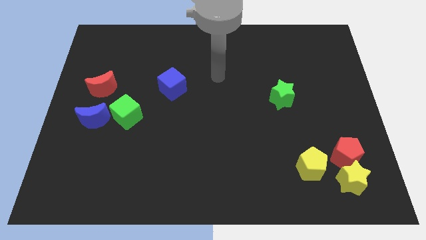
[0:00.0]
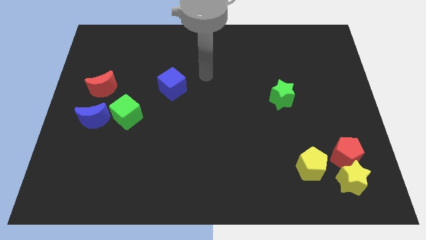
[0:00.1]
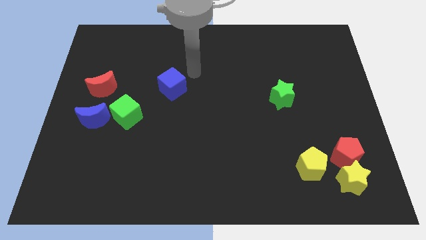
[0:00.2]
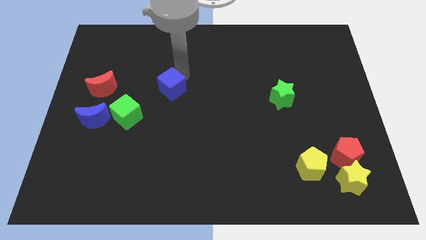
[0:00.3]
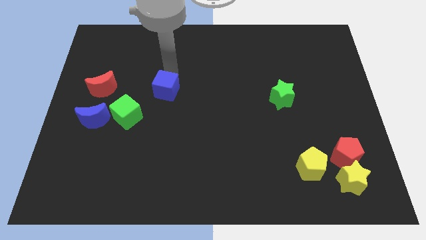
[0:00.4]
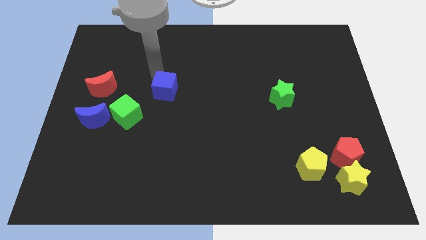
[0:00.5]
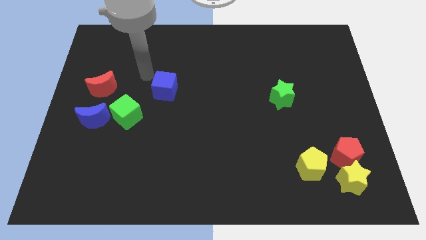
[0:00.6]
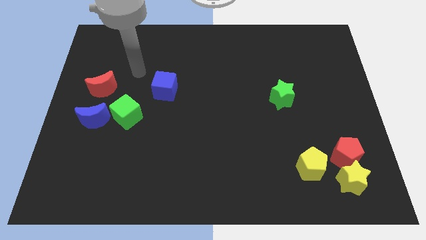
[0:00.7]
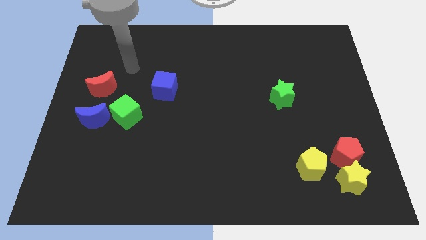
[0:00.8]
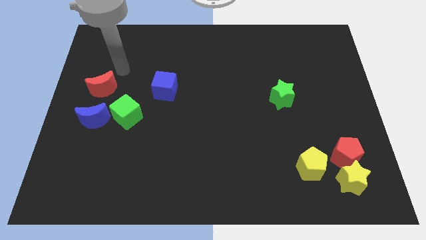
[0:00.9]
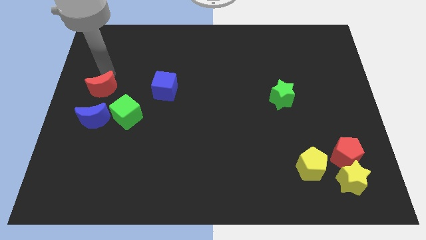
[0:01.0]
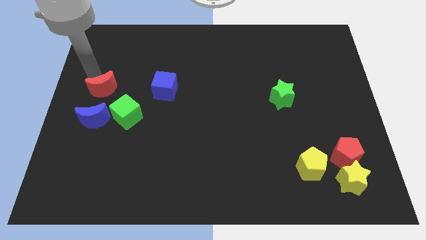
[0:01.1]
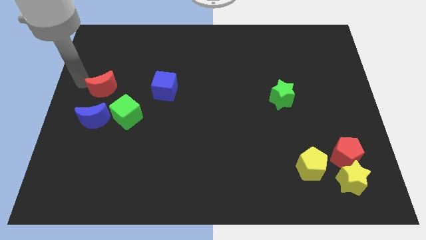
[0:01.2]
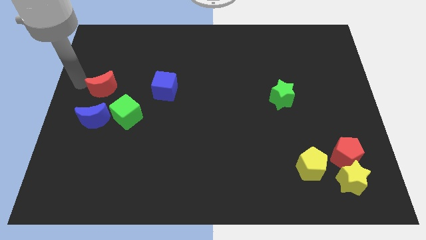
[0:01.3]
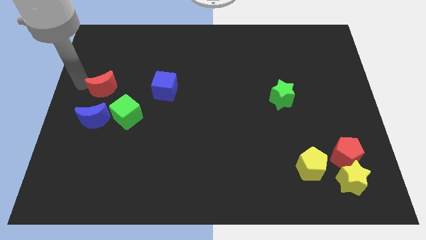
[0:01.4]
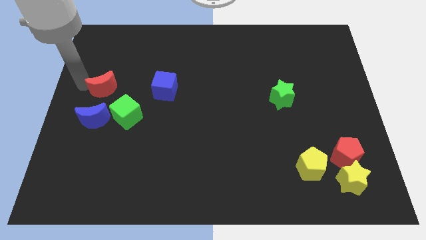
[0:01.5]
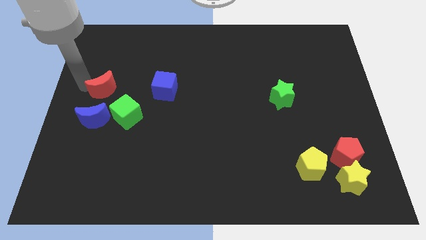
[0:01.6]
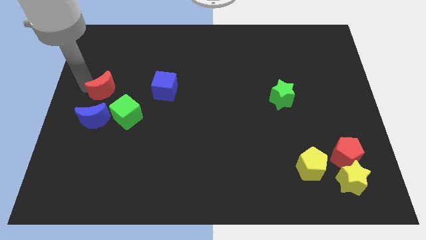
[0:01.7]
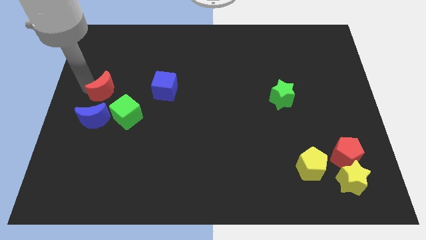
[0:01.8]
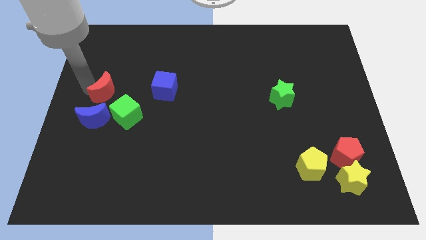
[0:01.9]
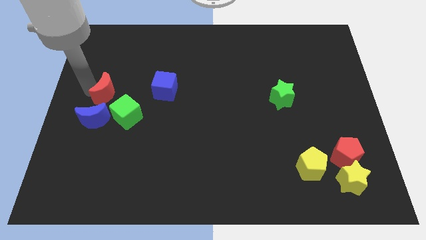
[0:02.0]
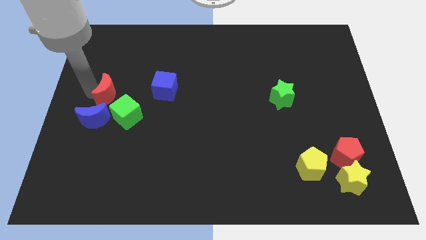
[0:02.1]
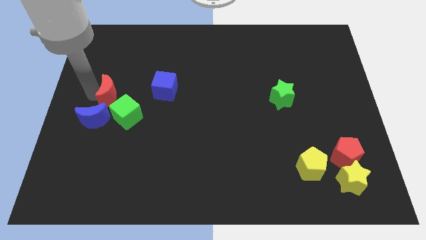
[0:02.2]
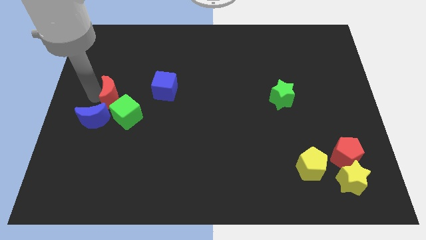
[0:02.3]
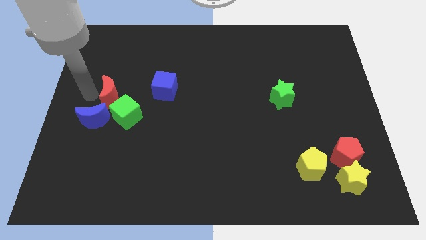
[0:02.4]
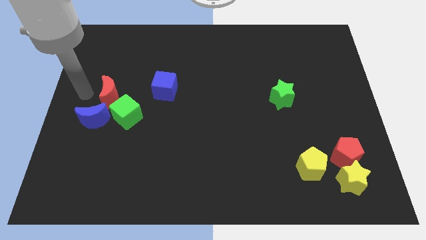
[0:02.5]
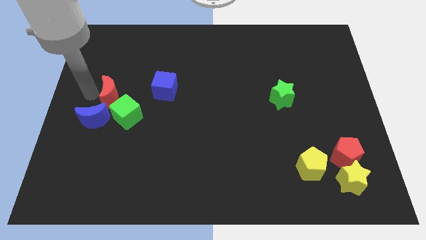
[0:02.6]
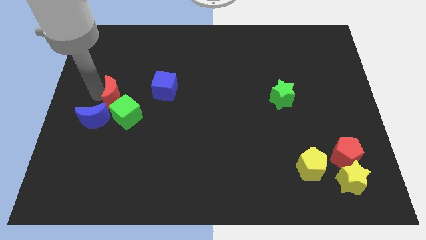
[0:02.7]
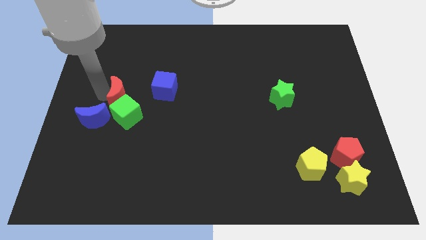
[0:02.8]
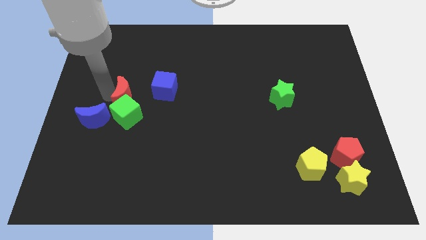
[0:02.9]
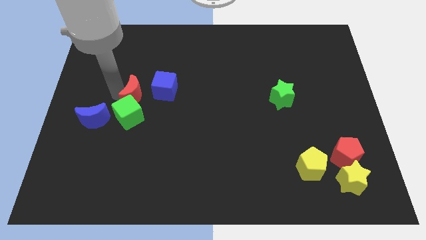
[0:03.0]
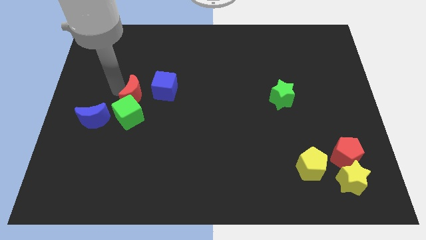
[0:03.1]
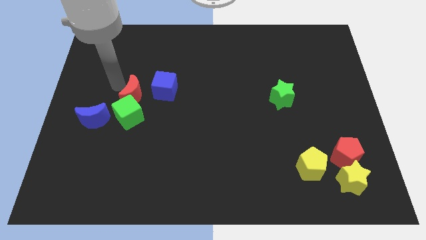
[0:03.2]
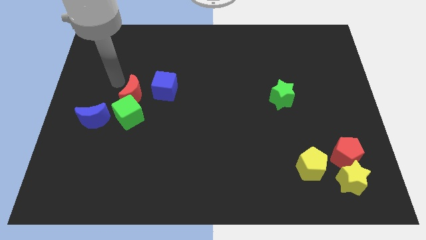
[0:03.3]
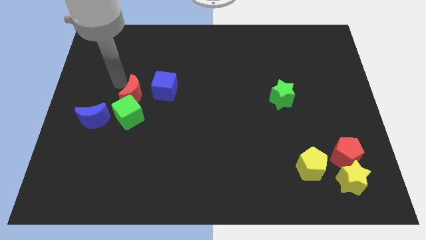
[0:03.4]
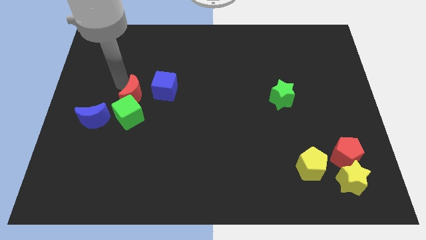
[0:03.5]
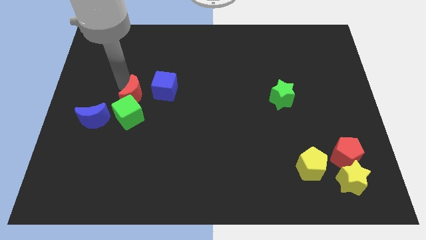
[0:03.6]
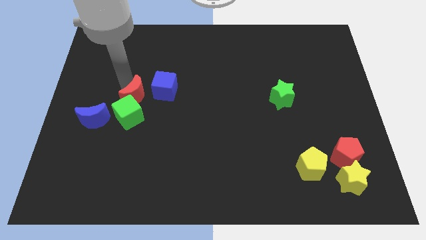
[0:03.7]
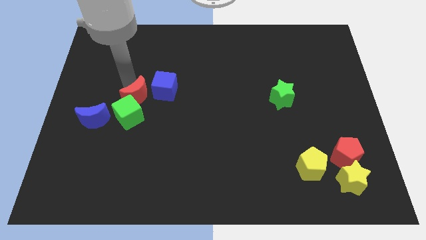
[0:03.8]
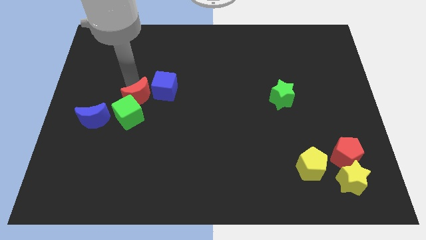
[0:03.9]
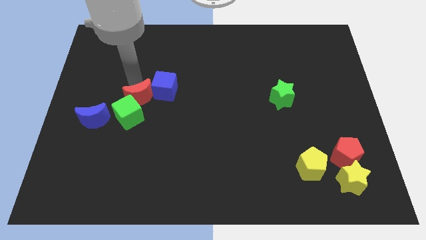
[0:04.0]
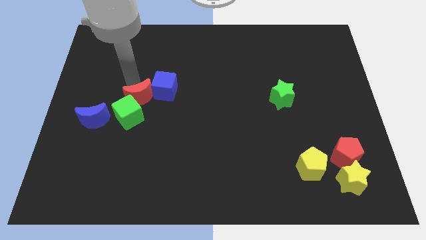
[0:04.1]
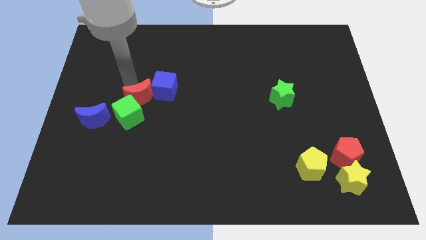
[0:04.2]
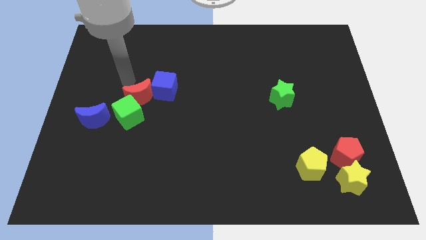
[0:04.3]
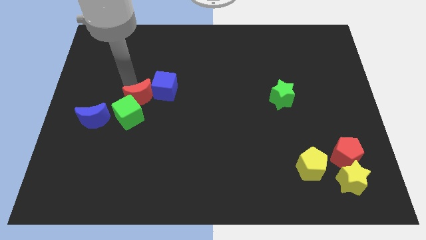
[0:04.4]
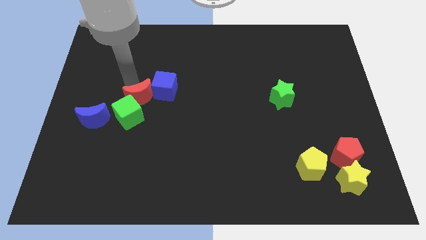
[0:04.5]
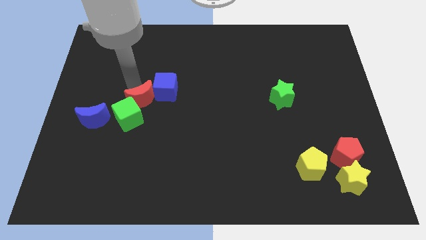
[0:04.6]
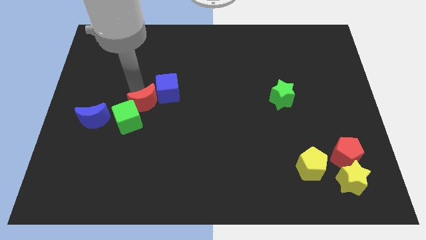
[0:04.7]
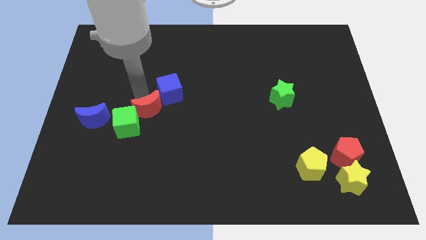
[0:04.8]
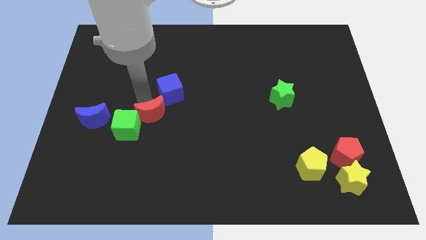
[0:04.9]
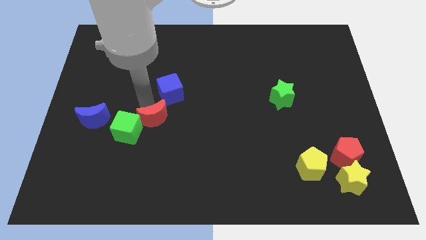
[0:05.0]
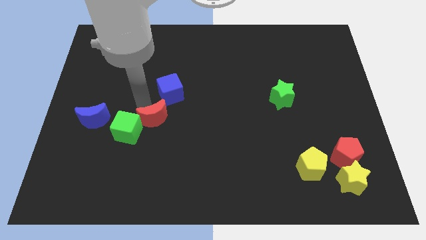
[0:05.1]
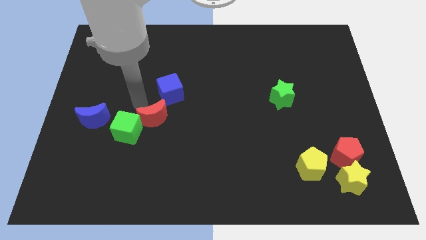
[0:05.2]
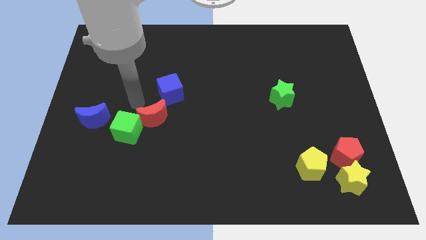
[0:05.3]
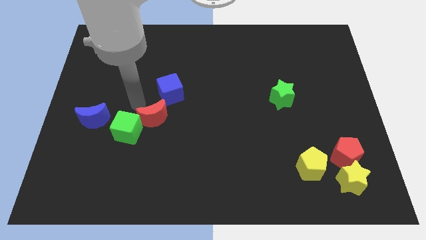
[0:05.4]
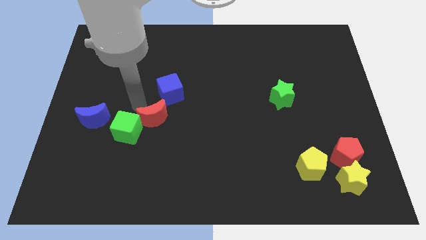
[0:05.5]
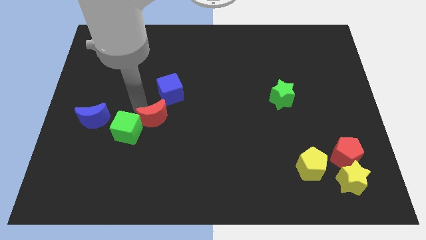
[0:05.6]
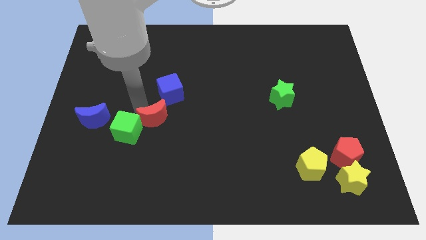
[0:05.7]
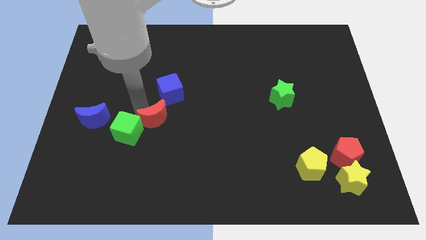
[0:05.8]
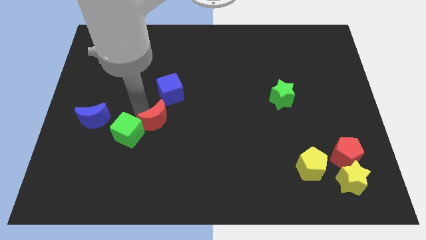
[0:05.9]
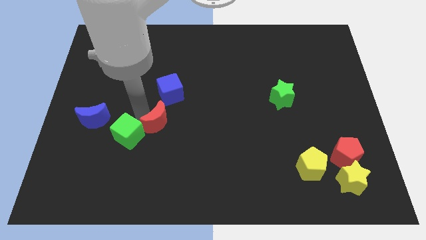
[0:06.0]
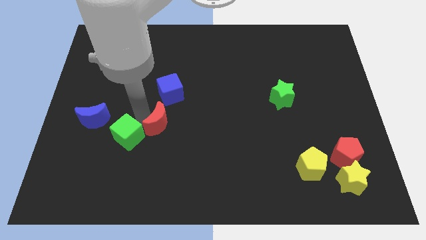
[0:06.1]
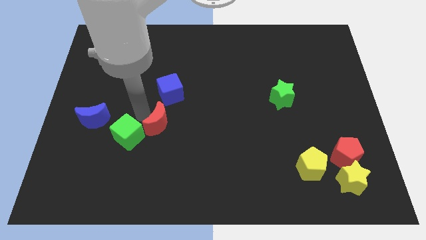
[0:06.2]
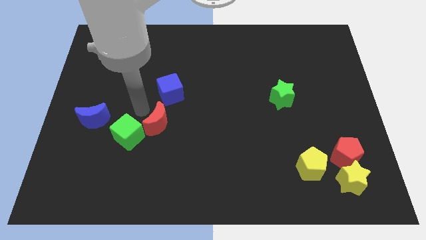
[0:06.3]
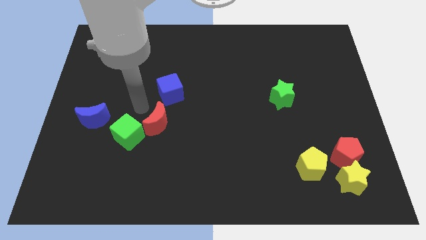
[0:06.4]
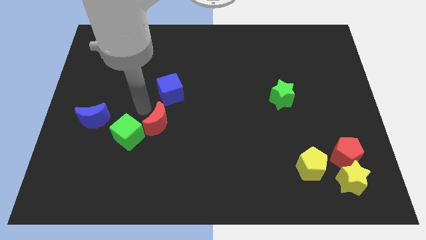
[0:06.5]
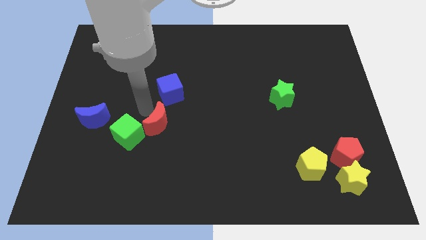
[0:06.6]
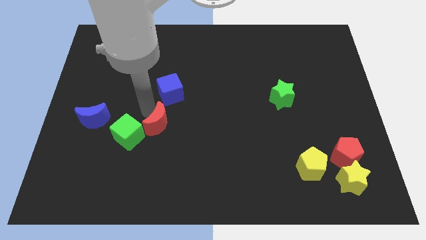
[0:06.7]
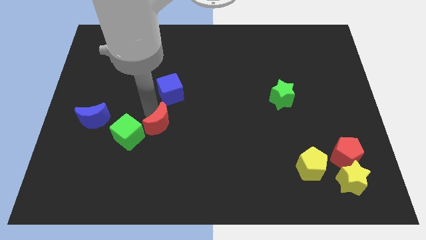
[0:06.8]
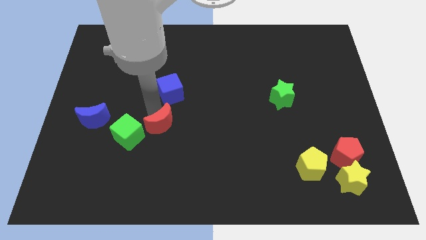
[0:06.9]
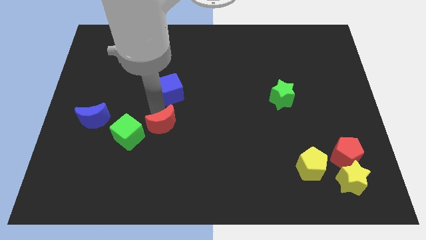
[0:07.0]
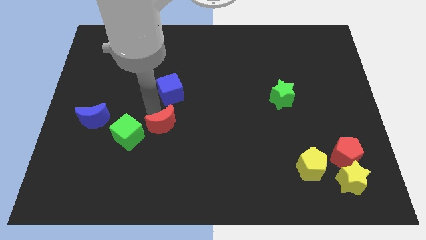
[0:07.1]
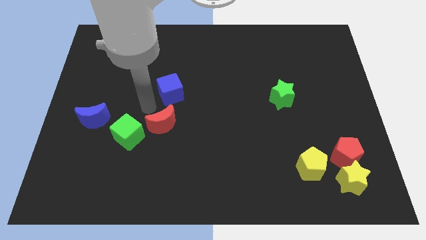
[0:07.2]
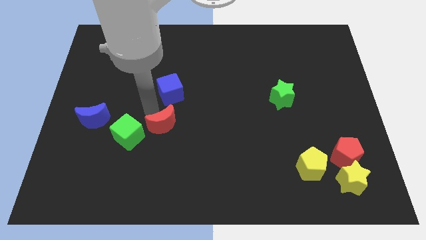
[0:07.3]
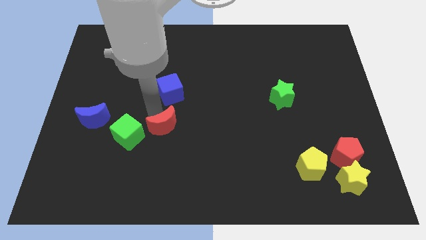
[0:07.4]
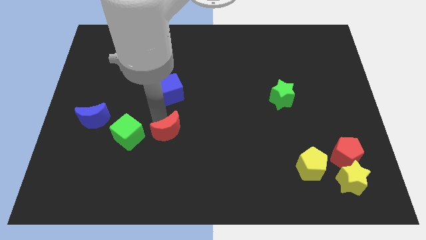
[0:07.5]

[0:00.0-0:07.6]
push the red moon diagonally downwards and to the right

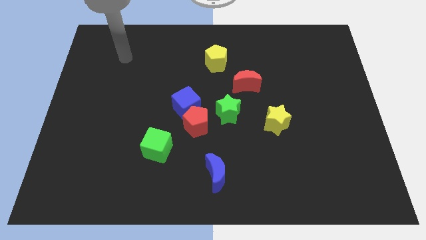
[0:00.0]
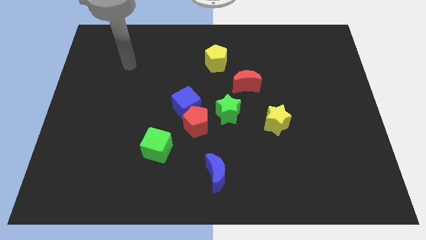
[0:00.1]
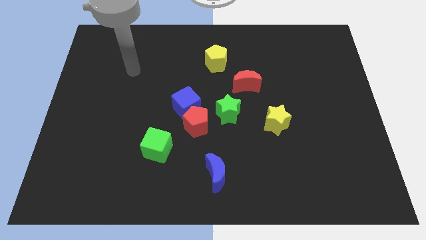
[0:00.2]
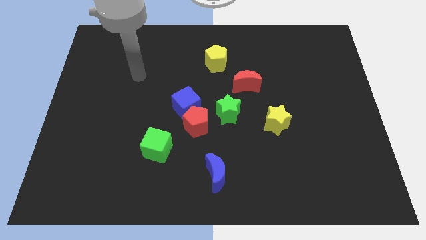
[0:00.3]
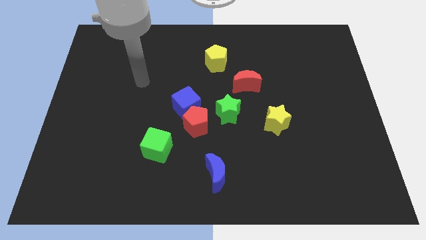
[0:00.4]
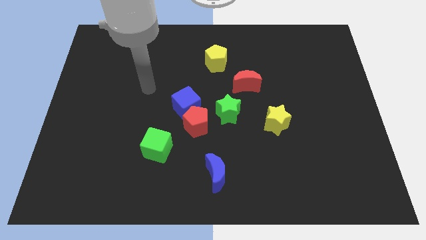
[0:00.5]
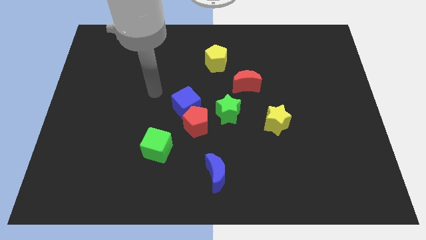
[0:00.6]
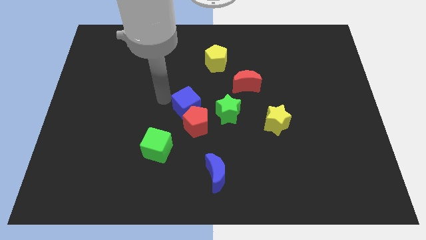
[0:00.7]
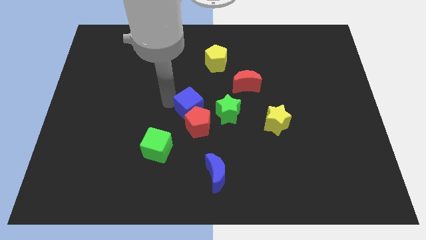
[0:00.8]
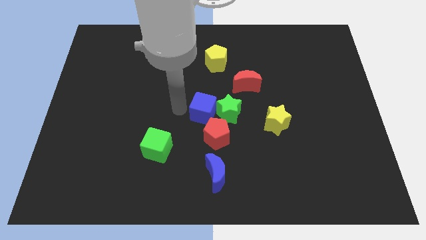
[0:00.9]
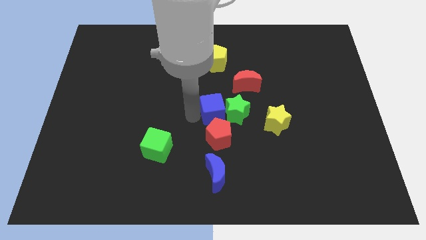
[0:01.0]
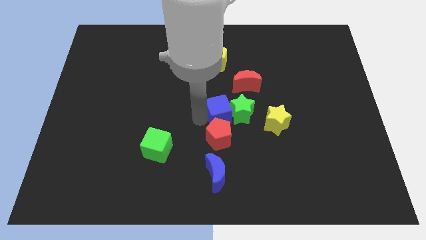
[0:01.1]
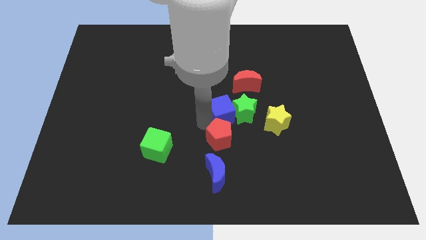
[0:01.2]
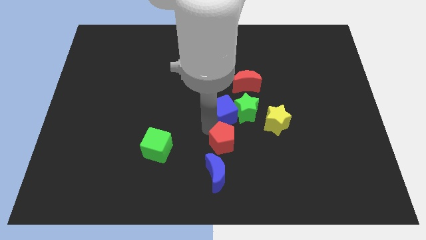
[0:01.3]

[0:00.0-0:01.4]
slightly move the red pentagon downwards and then to the right
